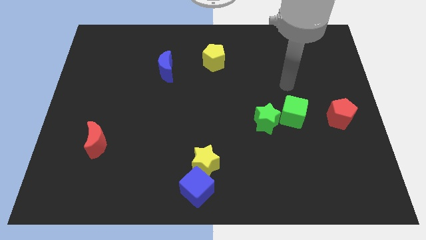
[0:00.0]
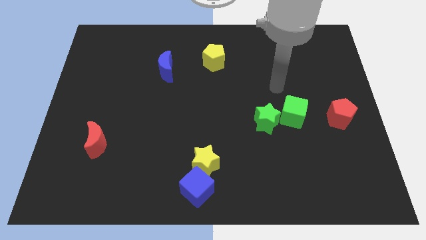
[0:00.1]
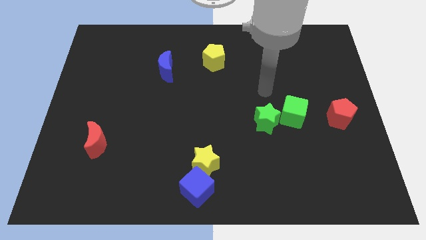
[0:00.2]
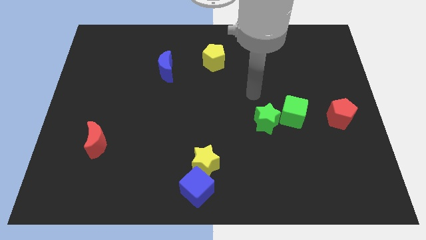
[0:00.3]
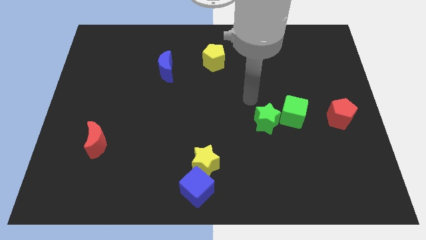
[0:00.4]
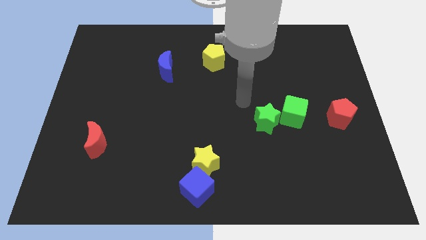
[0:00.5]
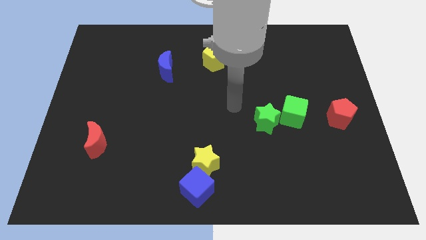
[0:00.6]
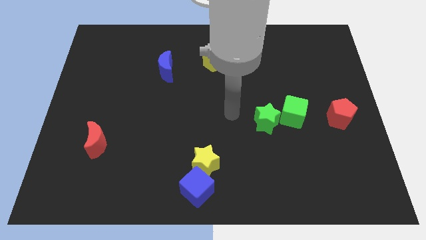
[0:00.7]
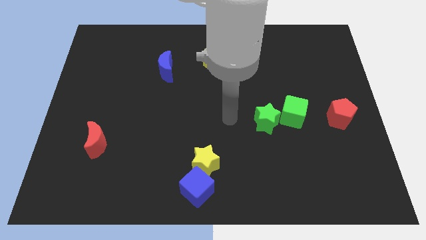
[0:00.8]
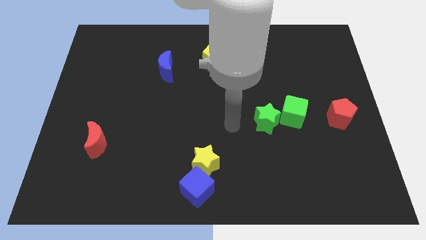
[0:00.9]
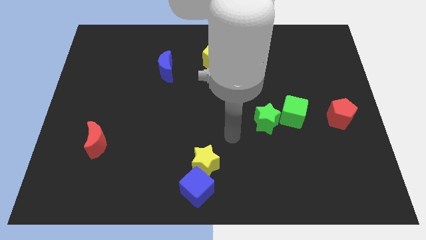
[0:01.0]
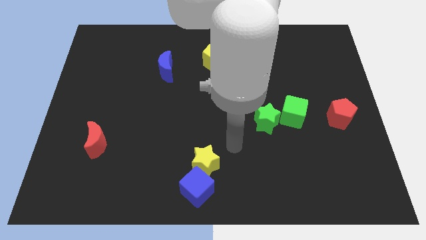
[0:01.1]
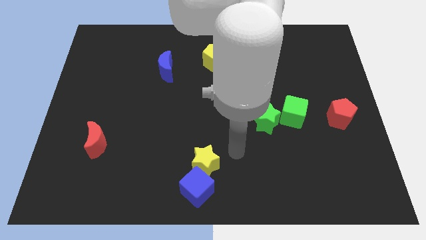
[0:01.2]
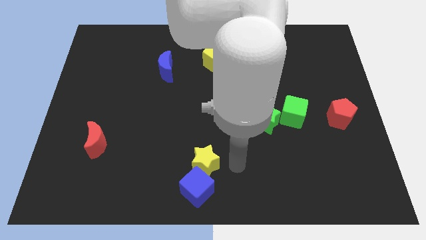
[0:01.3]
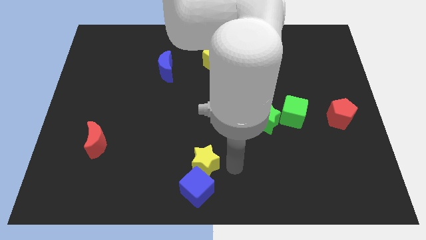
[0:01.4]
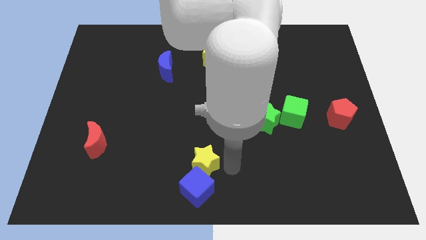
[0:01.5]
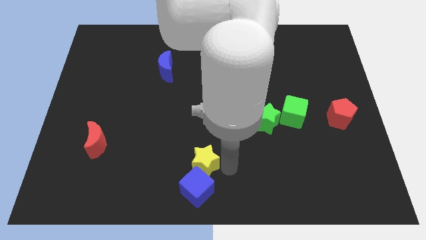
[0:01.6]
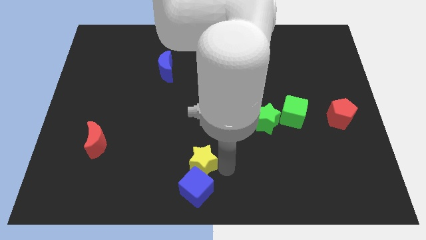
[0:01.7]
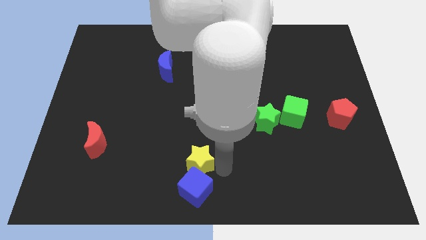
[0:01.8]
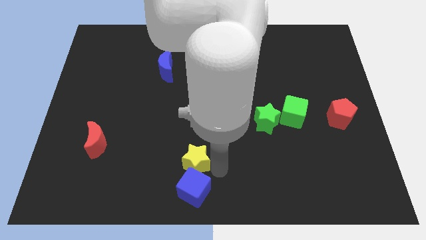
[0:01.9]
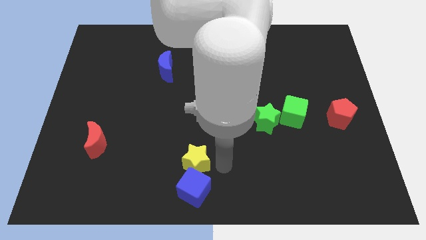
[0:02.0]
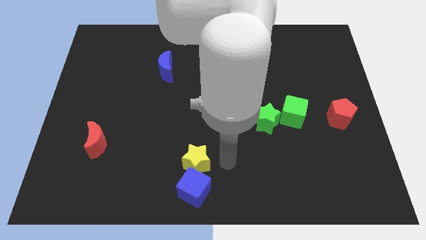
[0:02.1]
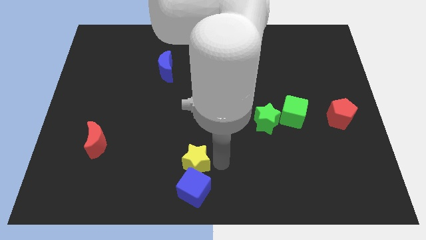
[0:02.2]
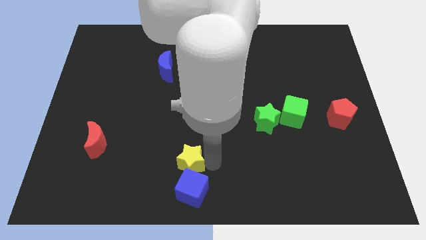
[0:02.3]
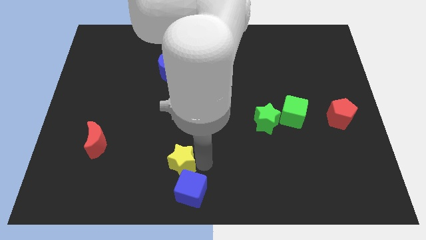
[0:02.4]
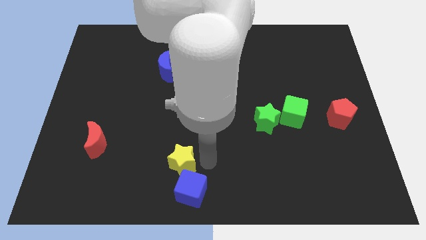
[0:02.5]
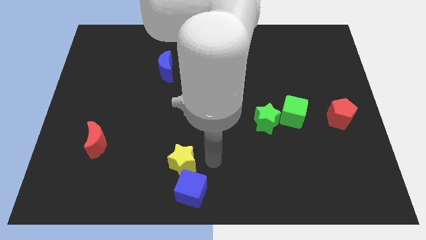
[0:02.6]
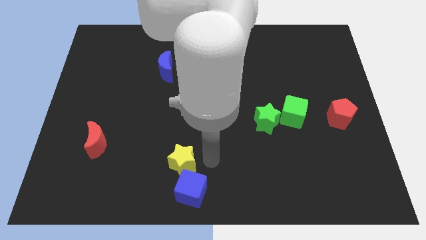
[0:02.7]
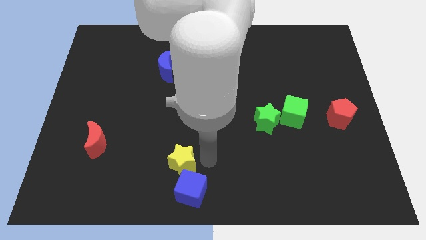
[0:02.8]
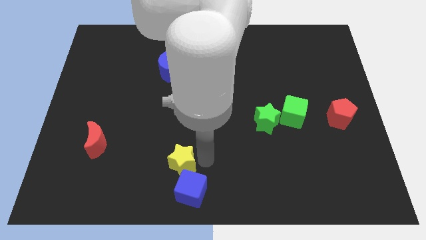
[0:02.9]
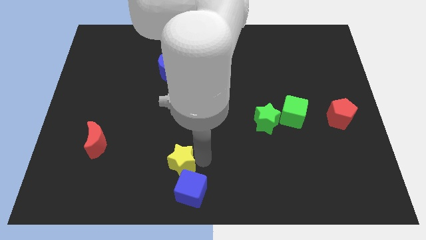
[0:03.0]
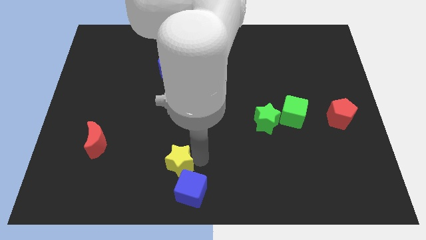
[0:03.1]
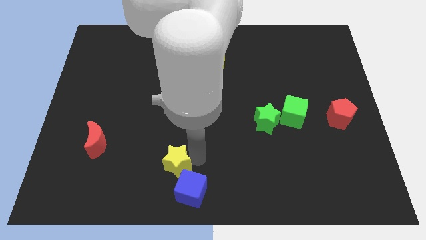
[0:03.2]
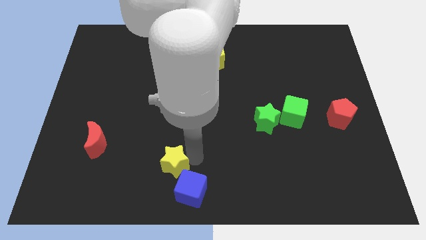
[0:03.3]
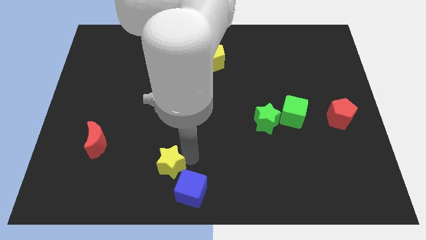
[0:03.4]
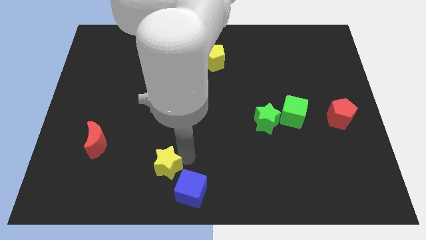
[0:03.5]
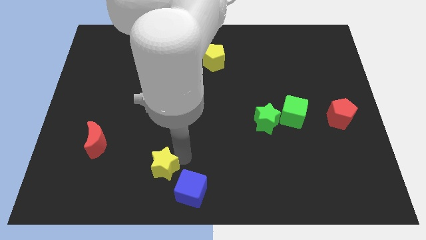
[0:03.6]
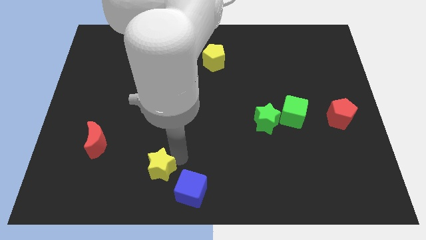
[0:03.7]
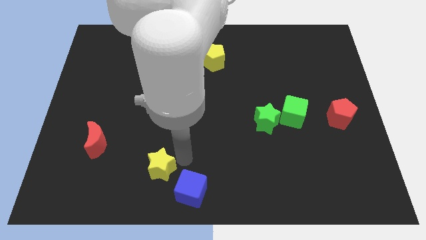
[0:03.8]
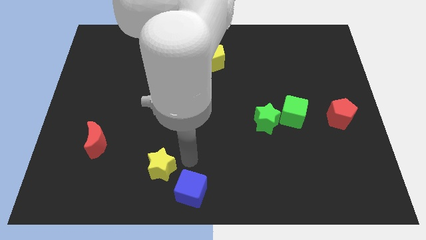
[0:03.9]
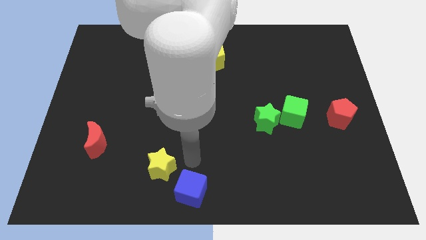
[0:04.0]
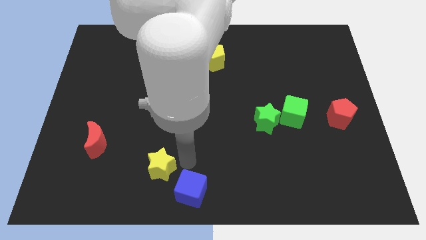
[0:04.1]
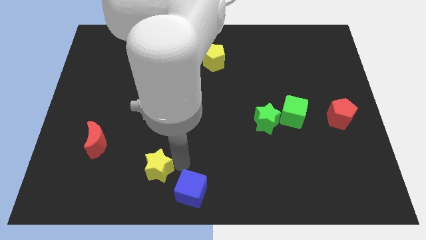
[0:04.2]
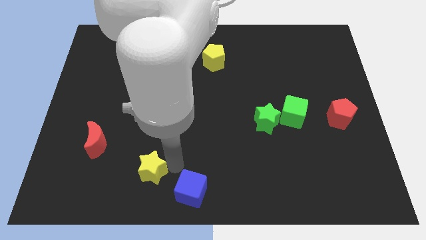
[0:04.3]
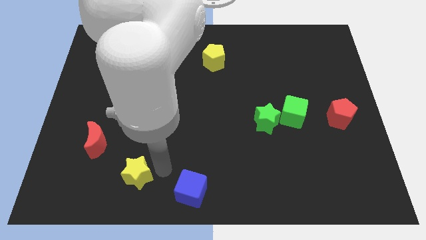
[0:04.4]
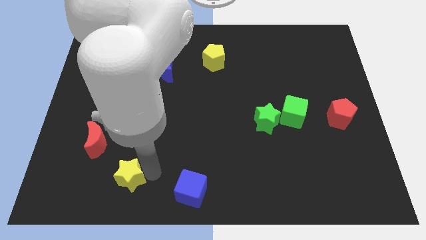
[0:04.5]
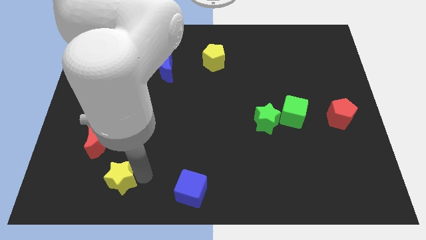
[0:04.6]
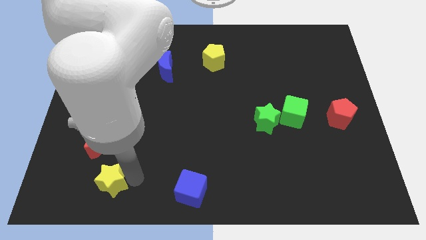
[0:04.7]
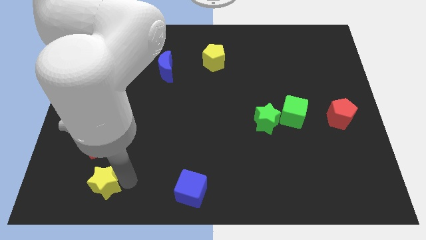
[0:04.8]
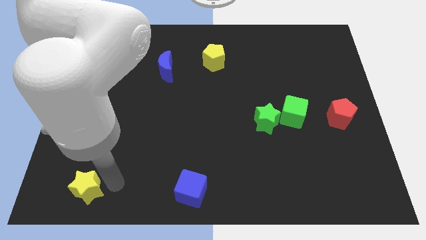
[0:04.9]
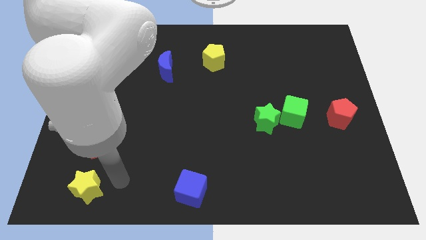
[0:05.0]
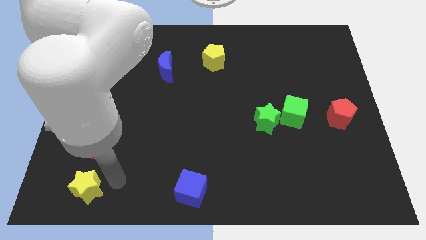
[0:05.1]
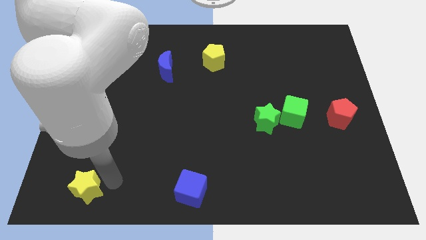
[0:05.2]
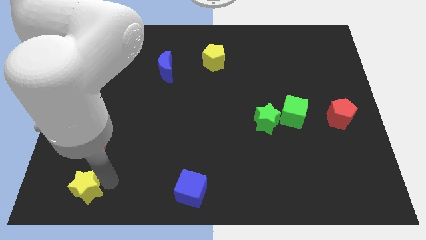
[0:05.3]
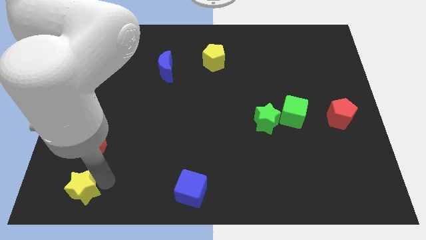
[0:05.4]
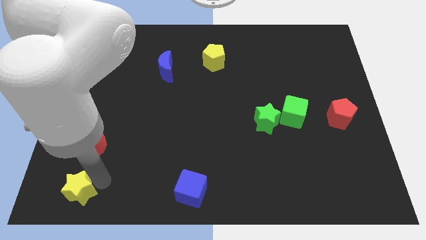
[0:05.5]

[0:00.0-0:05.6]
push the yellow star to the bottom left
